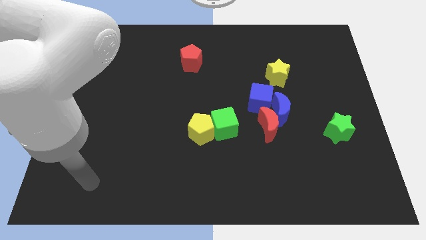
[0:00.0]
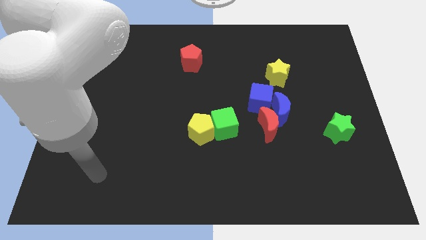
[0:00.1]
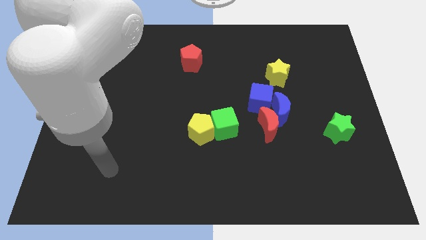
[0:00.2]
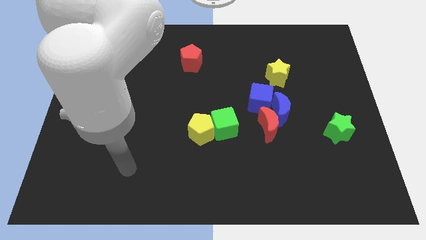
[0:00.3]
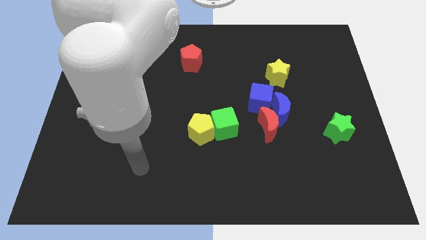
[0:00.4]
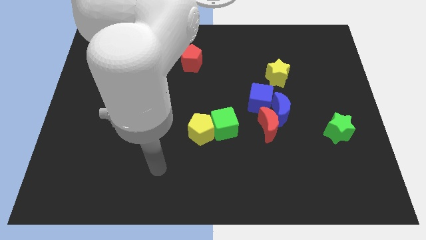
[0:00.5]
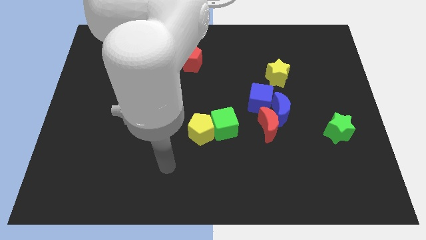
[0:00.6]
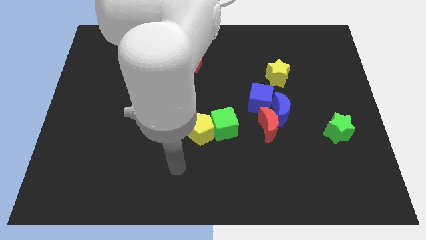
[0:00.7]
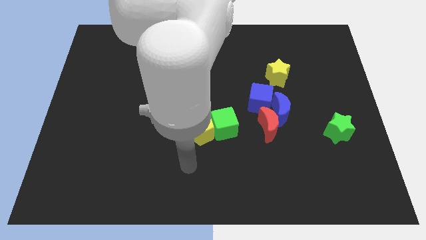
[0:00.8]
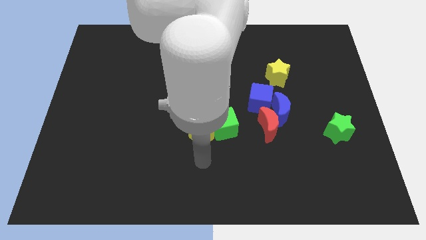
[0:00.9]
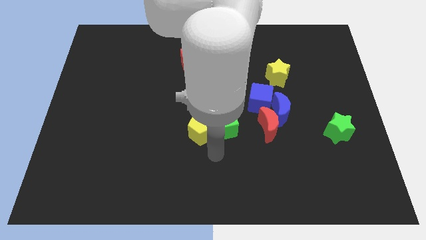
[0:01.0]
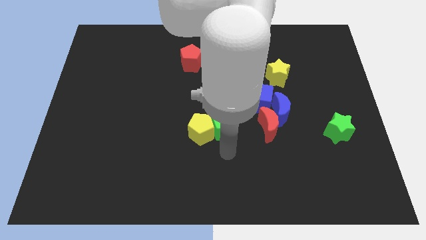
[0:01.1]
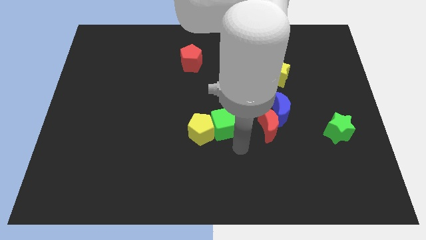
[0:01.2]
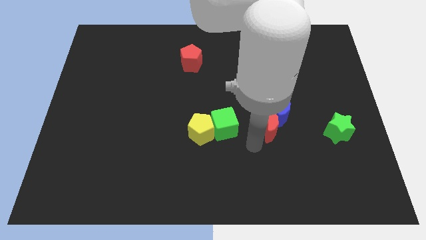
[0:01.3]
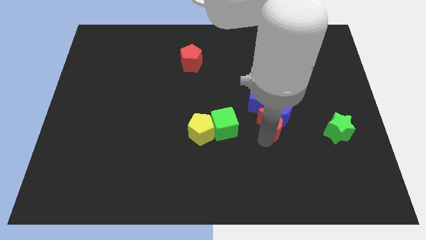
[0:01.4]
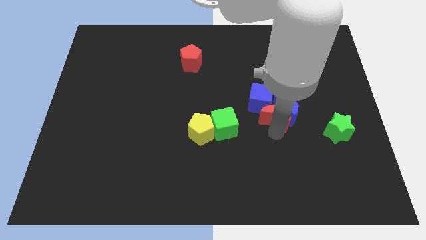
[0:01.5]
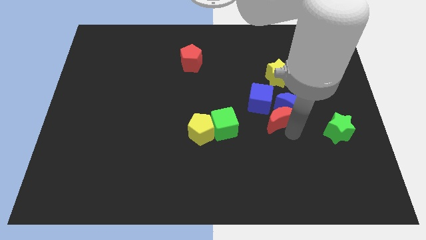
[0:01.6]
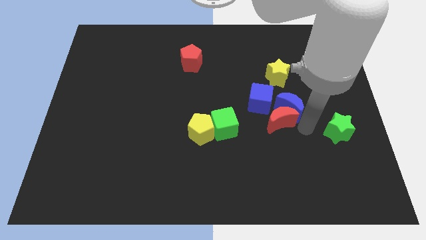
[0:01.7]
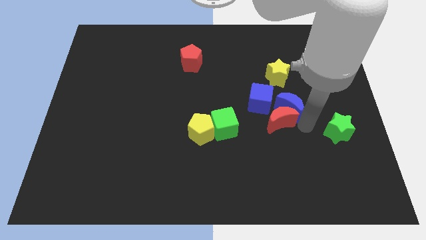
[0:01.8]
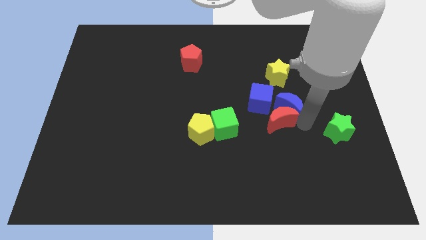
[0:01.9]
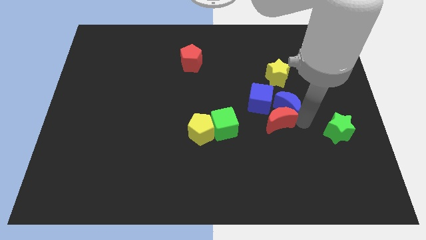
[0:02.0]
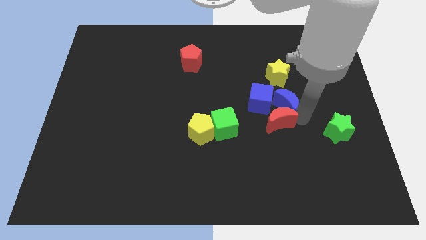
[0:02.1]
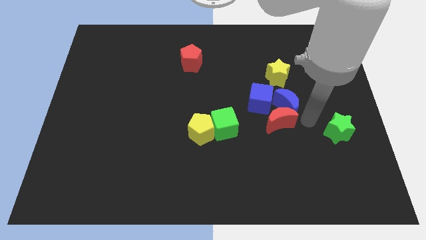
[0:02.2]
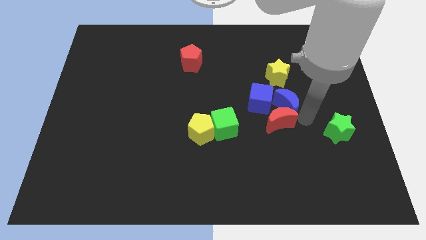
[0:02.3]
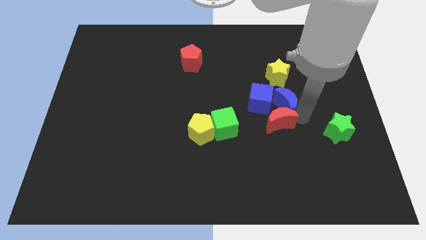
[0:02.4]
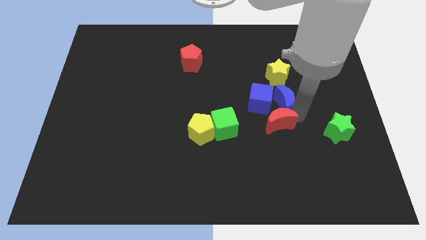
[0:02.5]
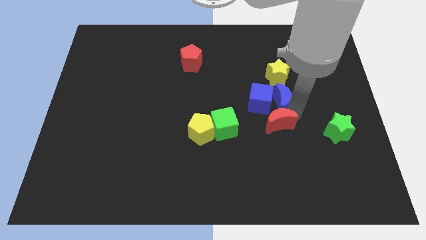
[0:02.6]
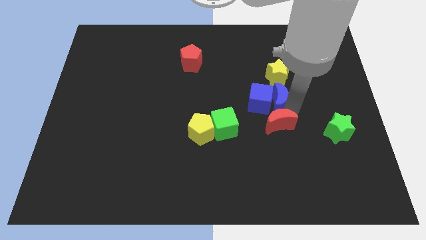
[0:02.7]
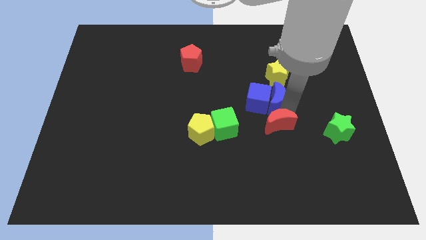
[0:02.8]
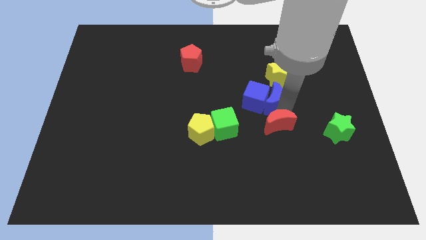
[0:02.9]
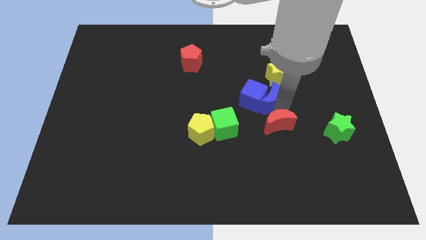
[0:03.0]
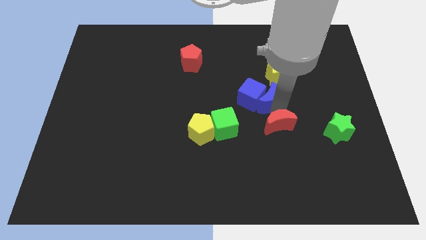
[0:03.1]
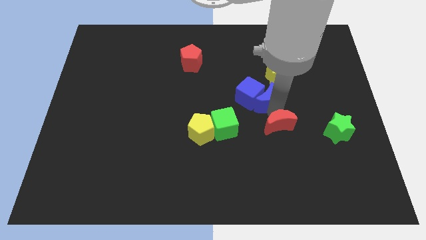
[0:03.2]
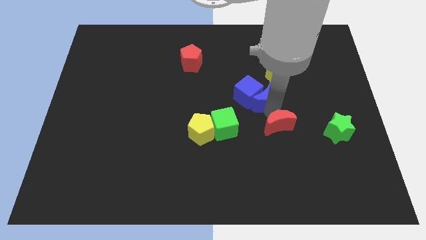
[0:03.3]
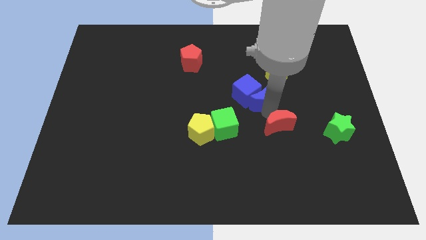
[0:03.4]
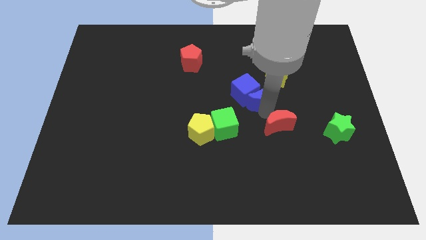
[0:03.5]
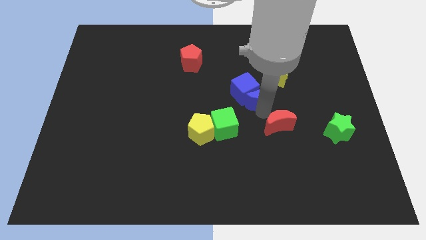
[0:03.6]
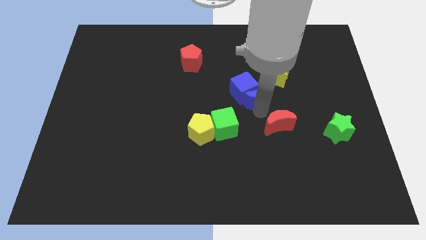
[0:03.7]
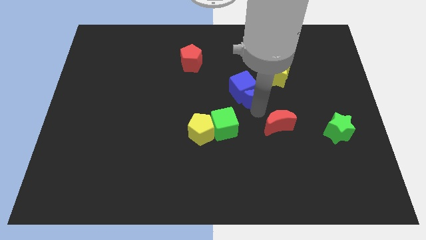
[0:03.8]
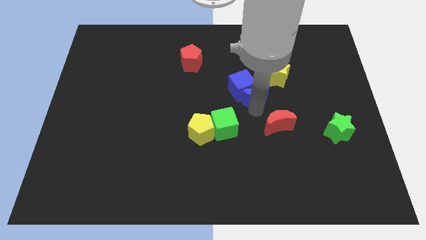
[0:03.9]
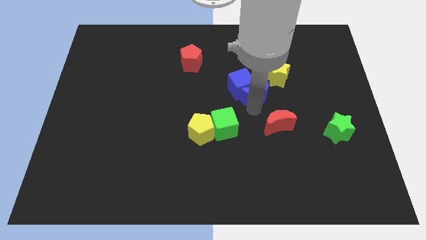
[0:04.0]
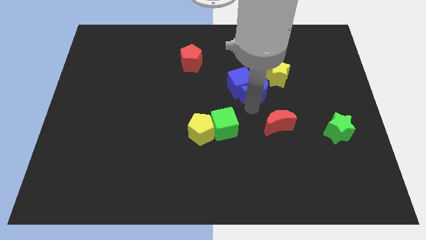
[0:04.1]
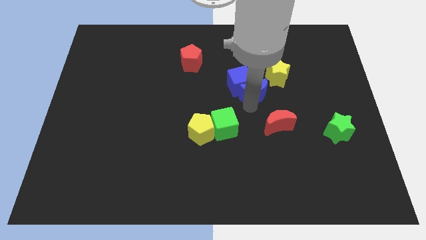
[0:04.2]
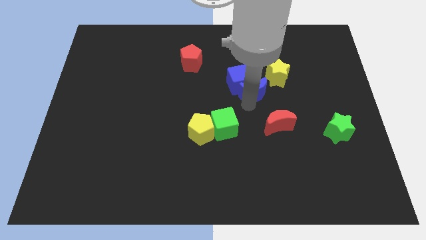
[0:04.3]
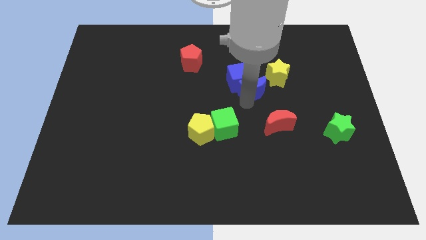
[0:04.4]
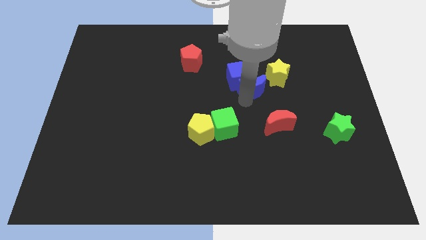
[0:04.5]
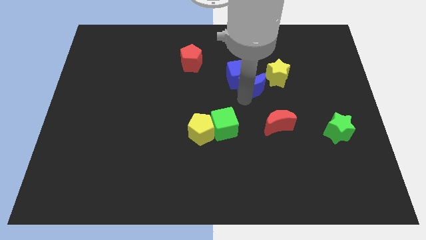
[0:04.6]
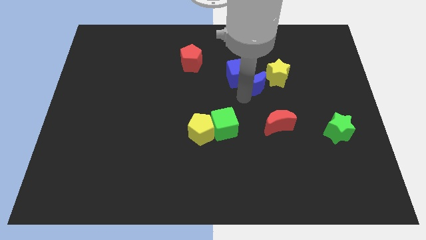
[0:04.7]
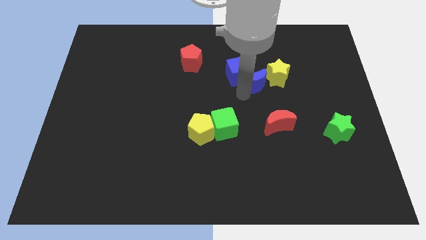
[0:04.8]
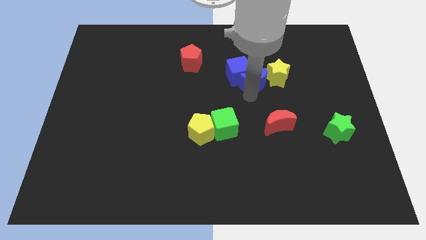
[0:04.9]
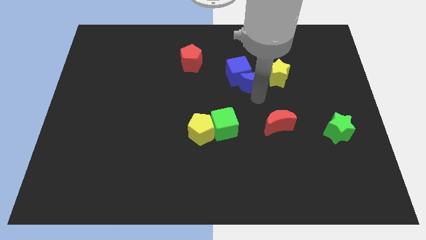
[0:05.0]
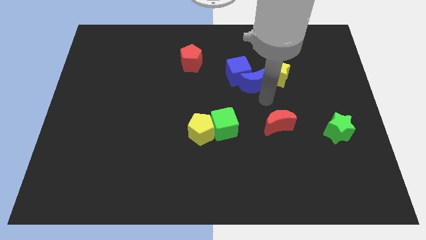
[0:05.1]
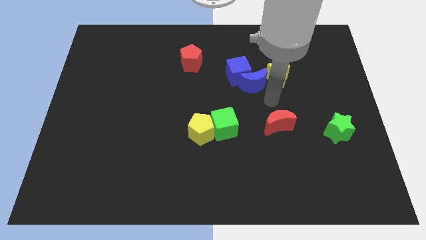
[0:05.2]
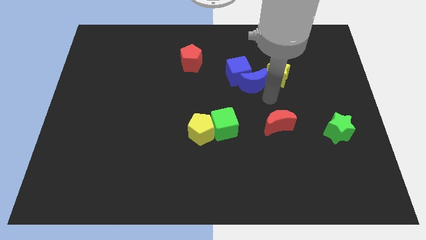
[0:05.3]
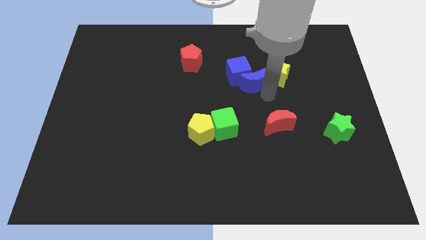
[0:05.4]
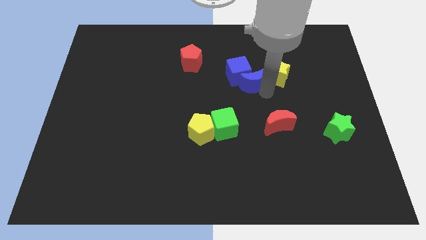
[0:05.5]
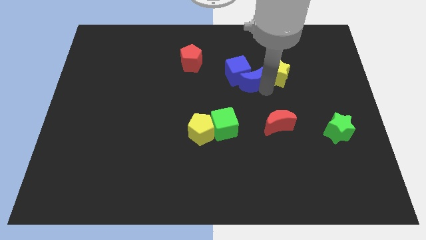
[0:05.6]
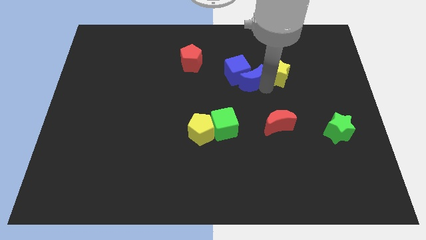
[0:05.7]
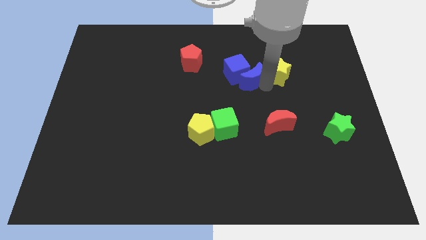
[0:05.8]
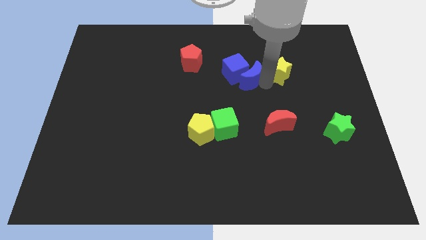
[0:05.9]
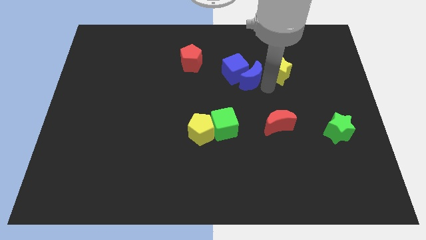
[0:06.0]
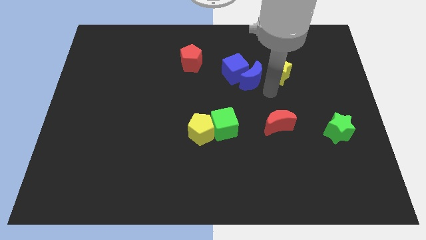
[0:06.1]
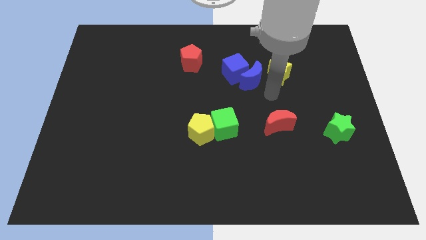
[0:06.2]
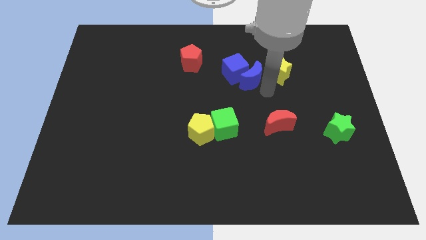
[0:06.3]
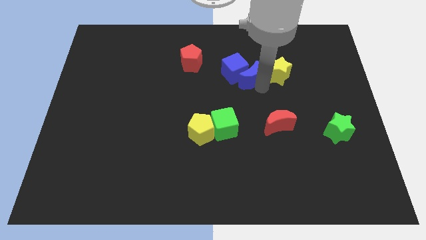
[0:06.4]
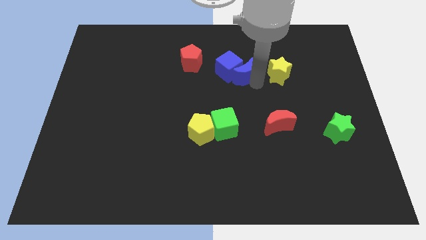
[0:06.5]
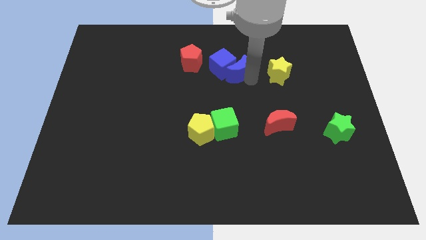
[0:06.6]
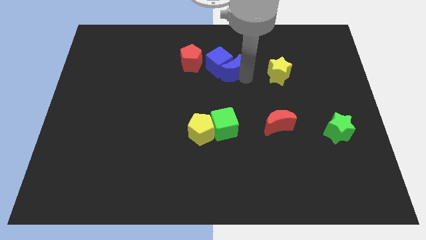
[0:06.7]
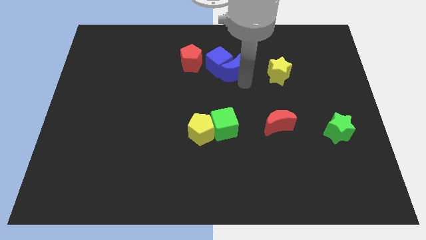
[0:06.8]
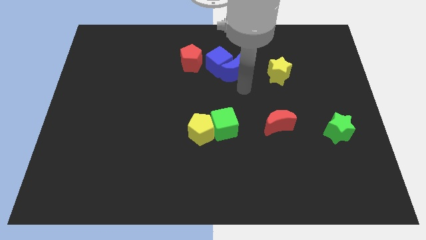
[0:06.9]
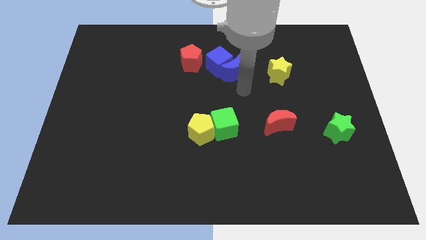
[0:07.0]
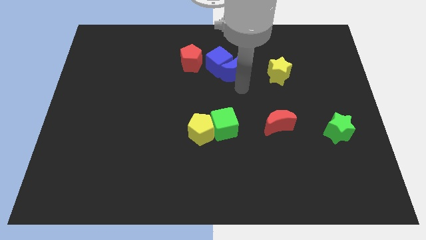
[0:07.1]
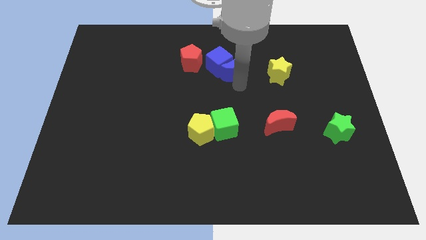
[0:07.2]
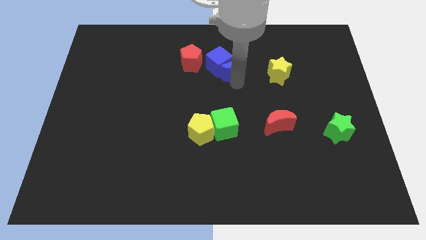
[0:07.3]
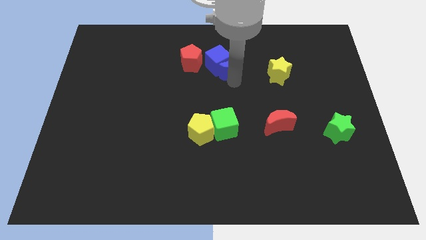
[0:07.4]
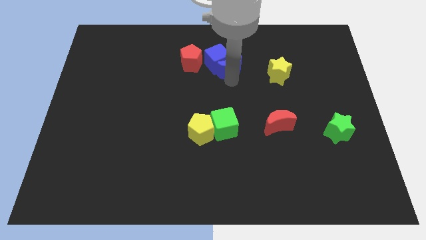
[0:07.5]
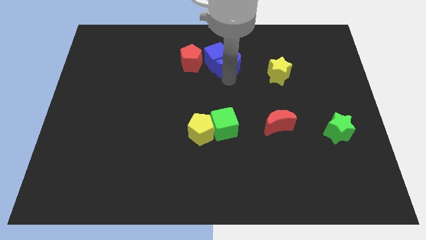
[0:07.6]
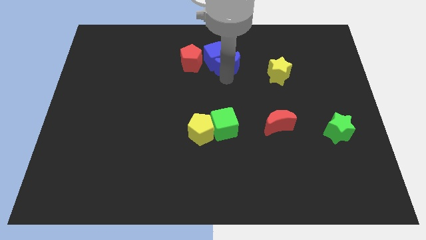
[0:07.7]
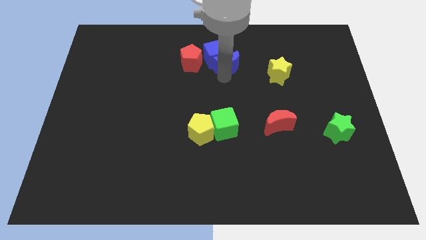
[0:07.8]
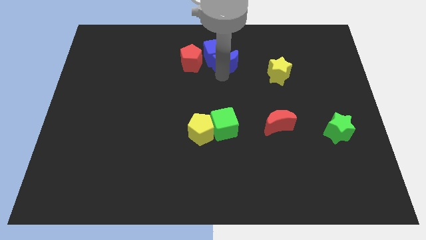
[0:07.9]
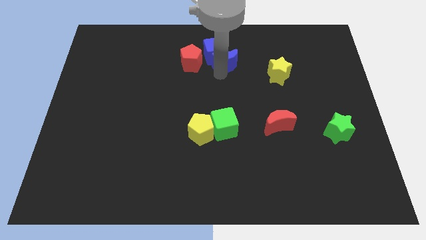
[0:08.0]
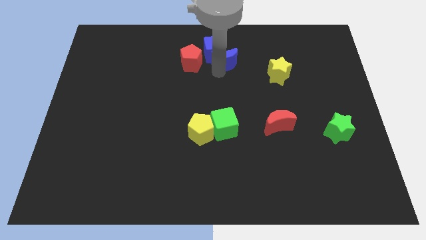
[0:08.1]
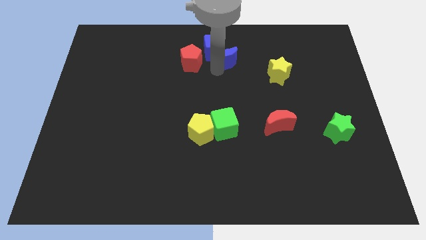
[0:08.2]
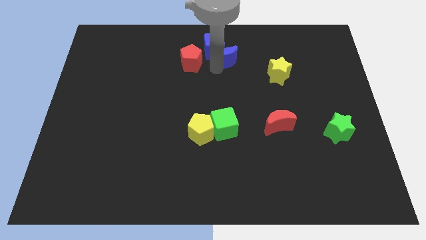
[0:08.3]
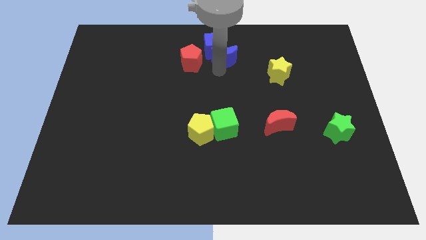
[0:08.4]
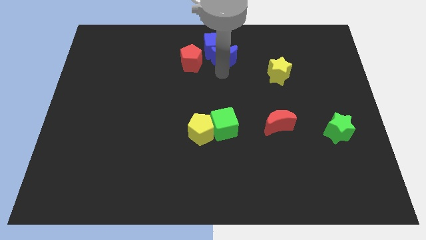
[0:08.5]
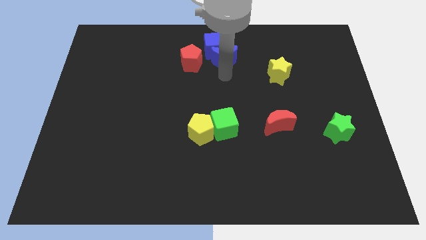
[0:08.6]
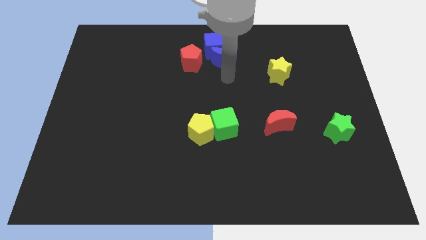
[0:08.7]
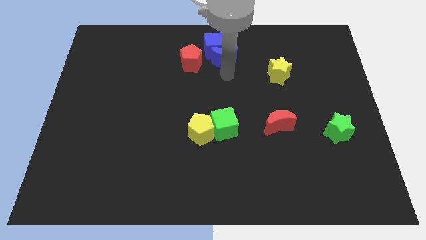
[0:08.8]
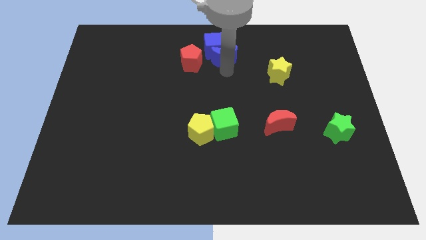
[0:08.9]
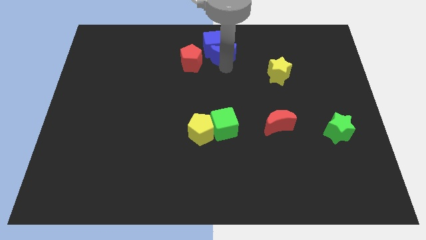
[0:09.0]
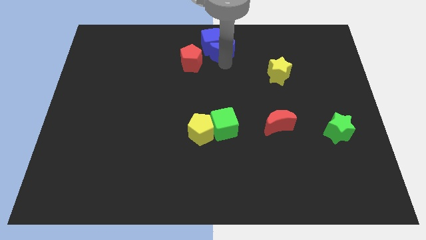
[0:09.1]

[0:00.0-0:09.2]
push the blue moon to the towards your base
